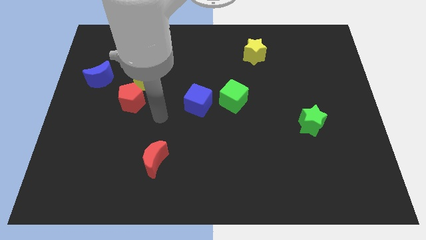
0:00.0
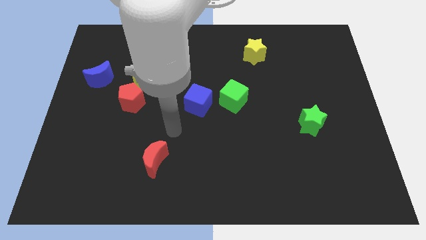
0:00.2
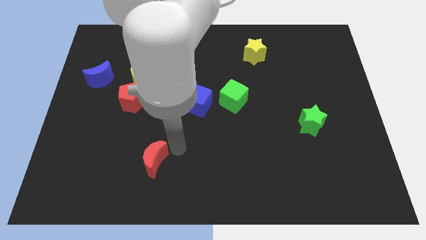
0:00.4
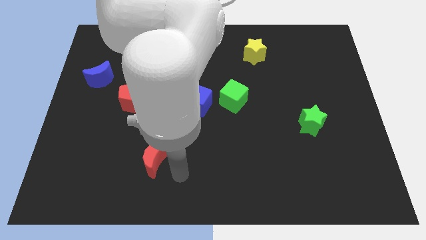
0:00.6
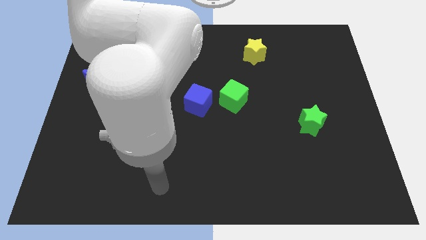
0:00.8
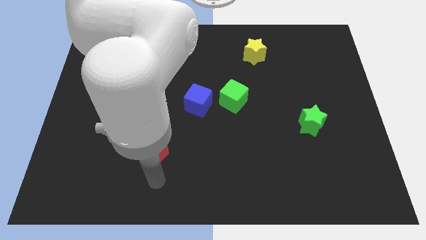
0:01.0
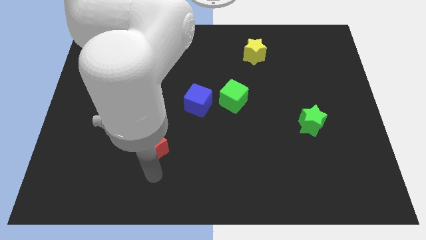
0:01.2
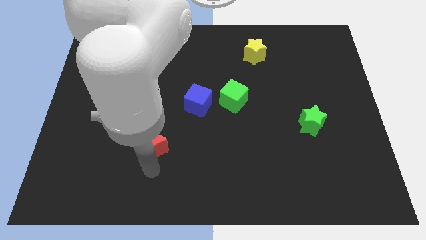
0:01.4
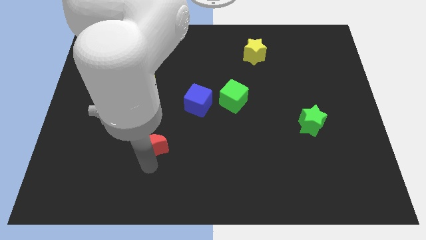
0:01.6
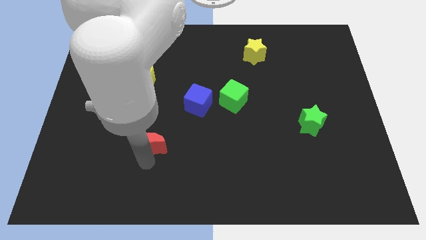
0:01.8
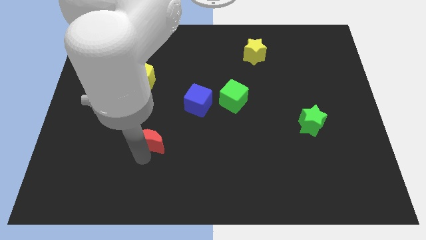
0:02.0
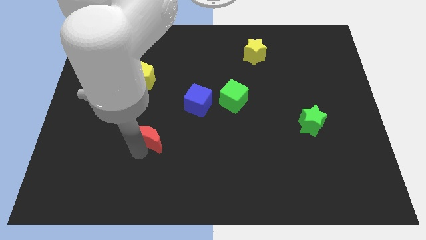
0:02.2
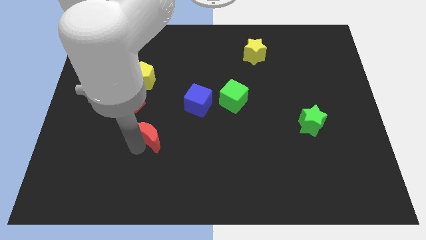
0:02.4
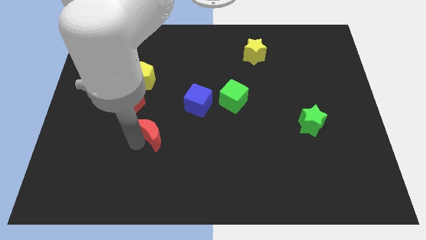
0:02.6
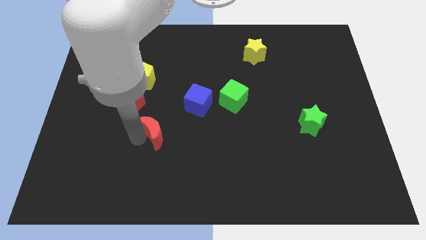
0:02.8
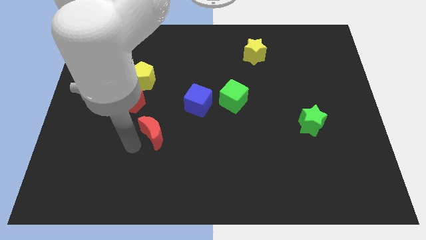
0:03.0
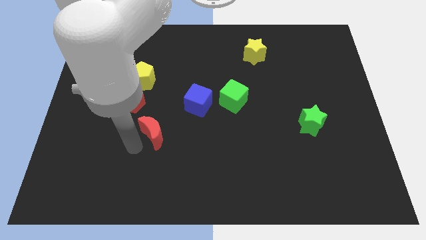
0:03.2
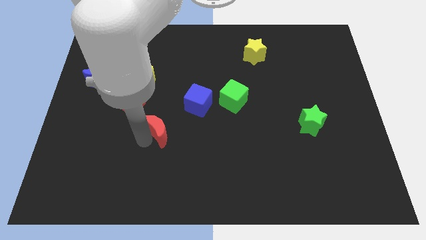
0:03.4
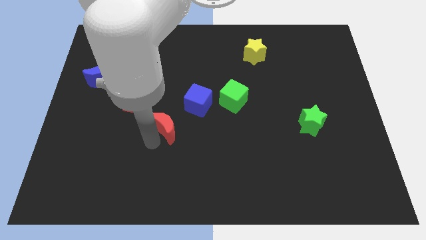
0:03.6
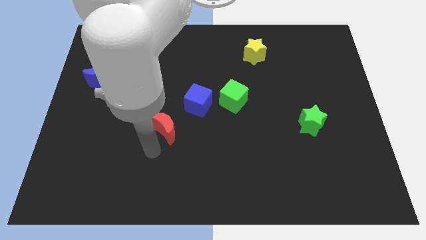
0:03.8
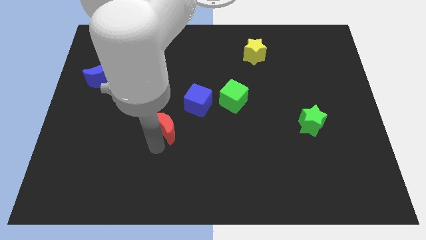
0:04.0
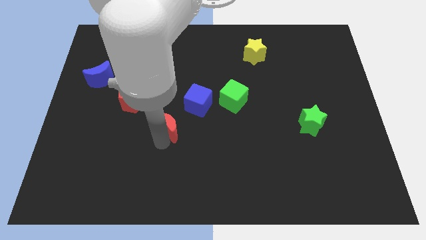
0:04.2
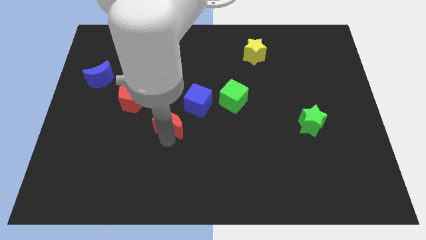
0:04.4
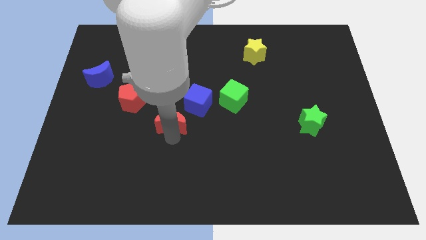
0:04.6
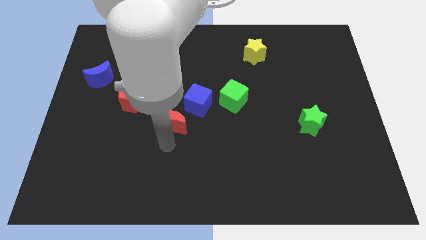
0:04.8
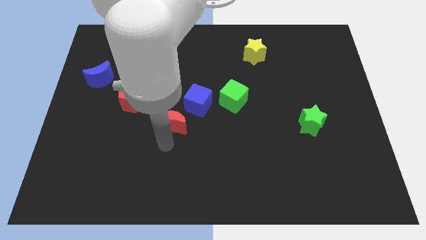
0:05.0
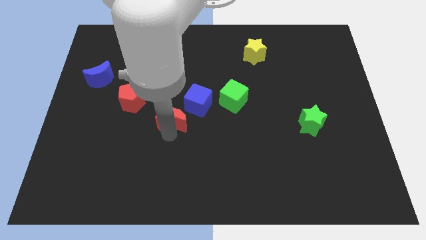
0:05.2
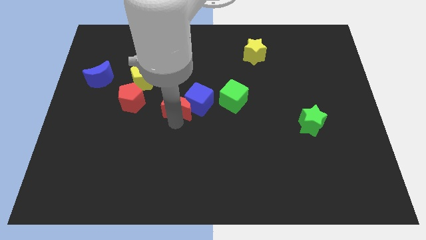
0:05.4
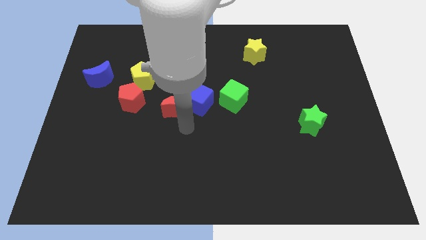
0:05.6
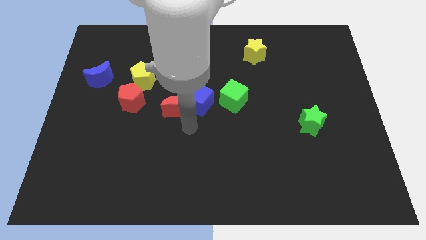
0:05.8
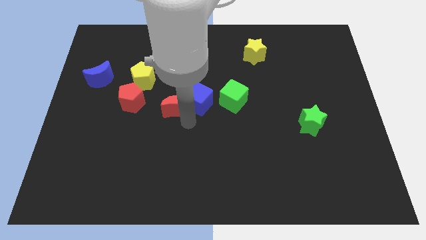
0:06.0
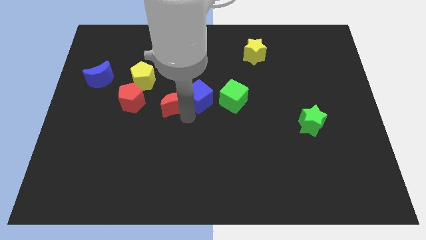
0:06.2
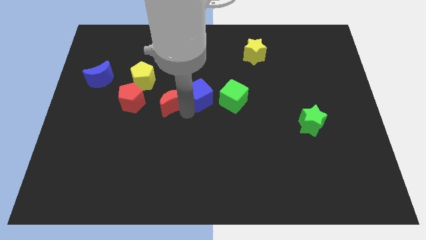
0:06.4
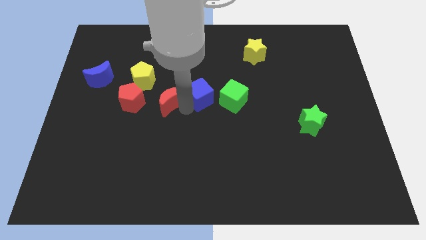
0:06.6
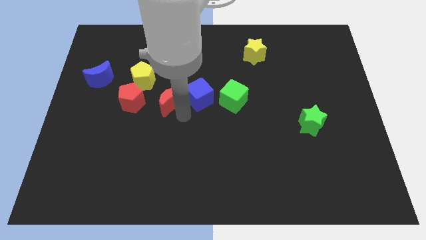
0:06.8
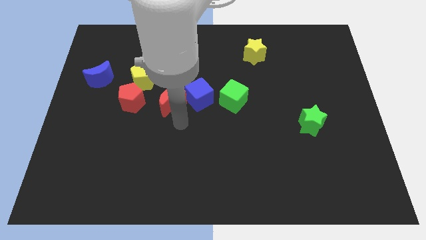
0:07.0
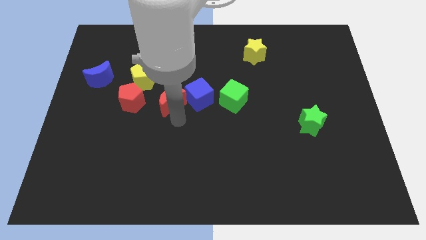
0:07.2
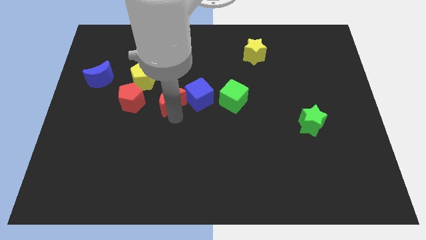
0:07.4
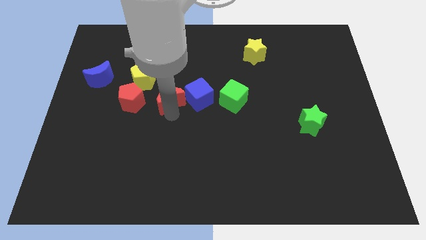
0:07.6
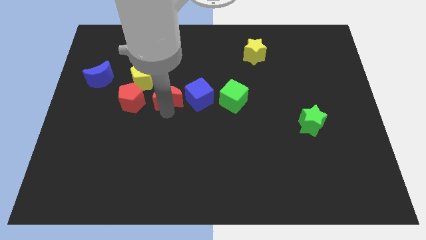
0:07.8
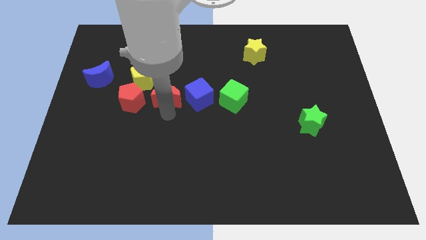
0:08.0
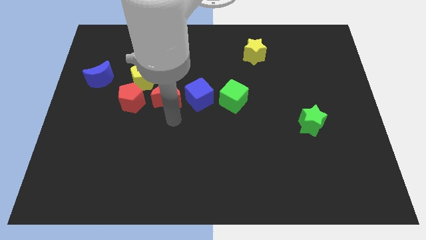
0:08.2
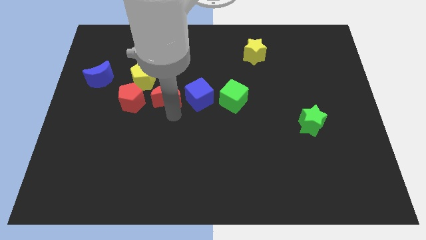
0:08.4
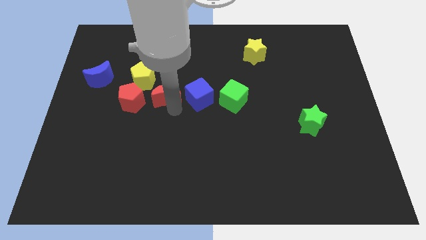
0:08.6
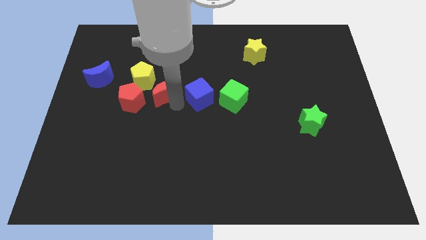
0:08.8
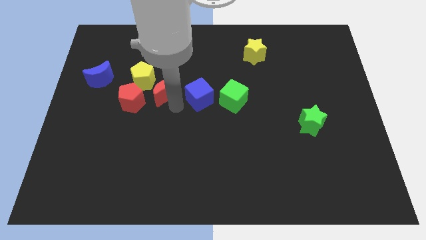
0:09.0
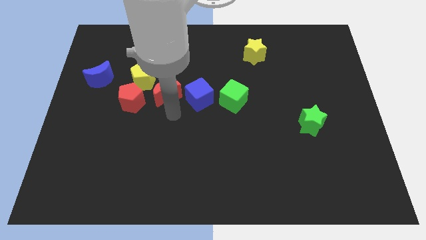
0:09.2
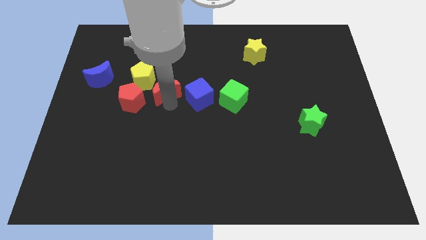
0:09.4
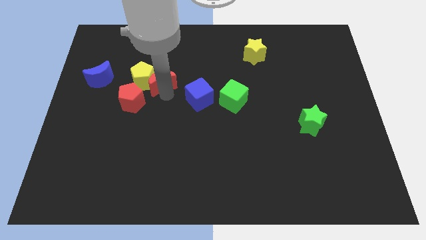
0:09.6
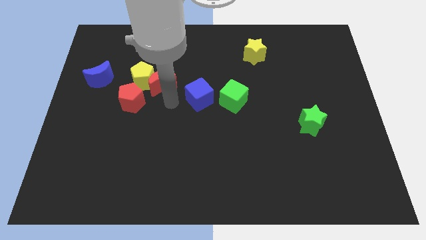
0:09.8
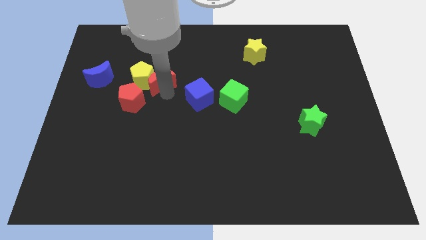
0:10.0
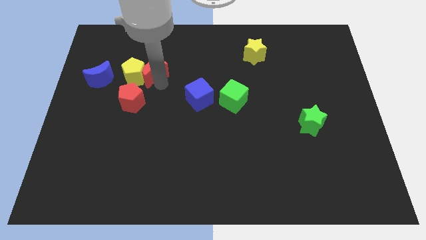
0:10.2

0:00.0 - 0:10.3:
push the red moon to the top of the red pentagon

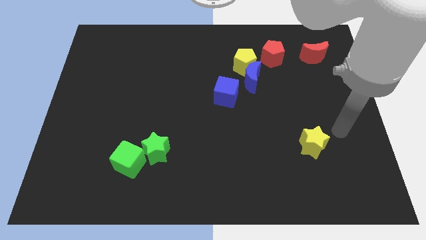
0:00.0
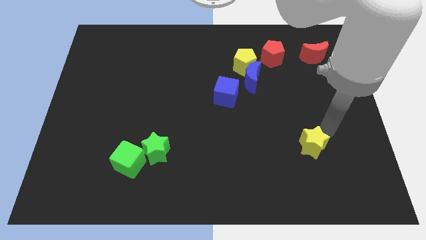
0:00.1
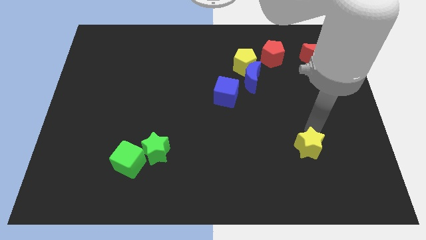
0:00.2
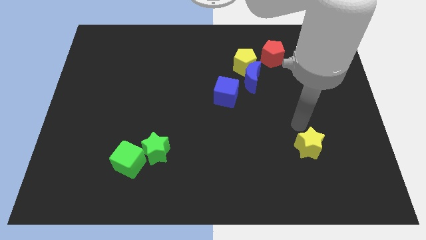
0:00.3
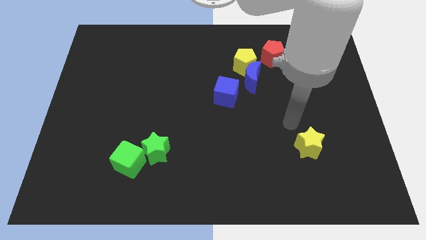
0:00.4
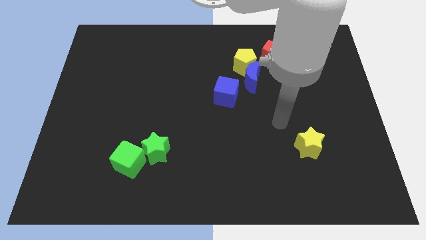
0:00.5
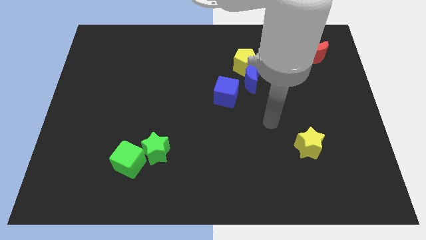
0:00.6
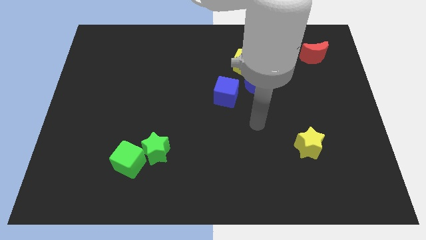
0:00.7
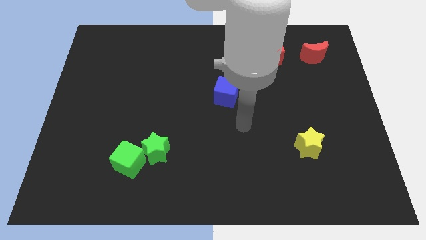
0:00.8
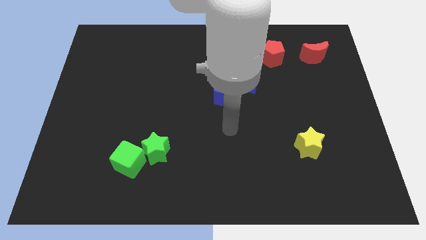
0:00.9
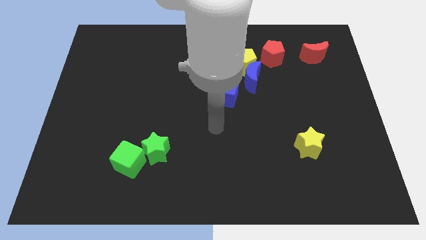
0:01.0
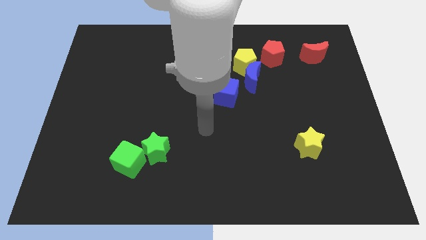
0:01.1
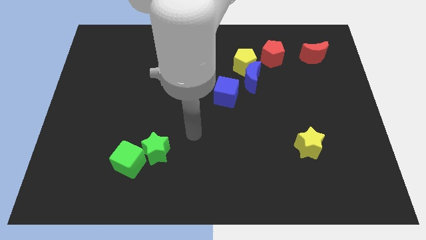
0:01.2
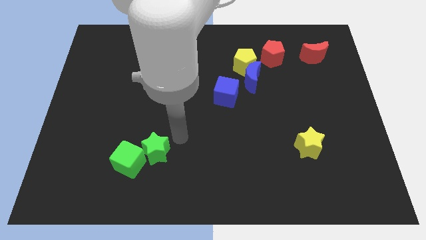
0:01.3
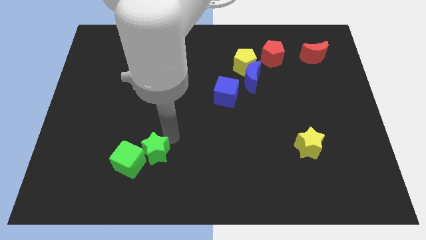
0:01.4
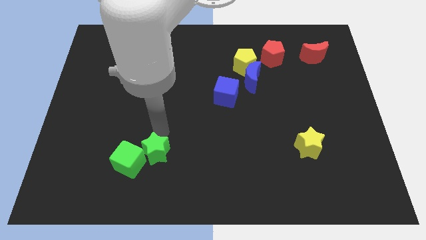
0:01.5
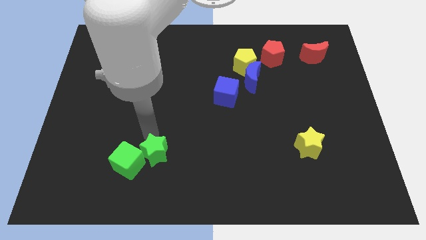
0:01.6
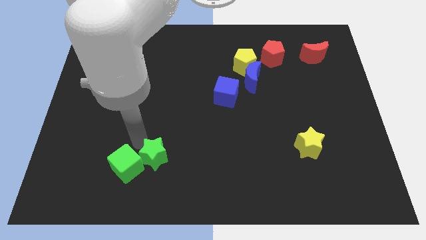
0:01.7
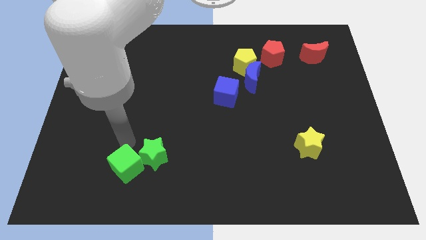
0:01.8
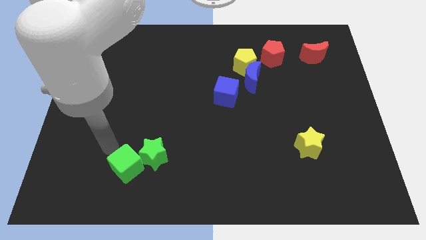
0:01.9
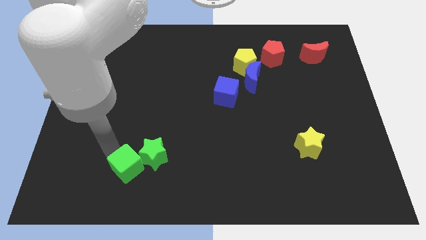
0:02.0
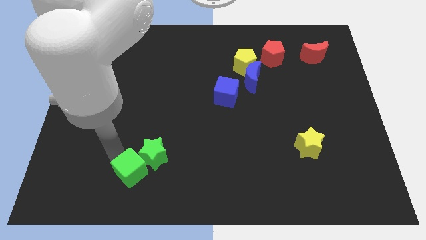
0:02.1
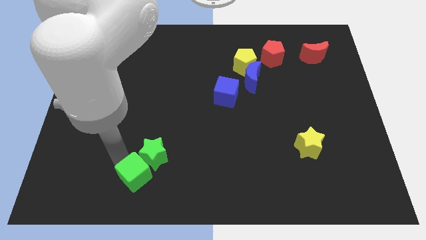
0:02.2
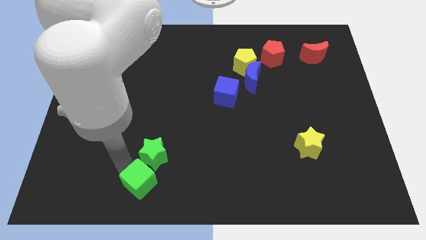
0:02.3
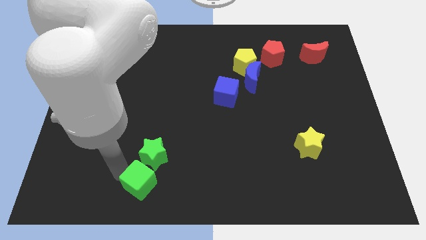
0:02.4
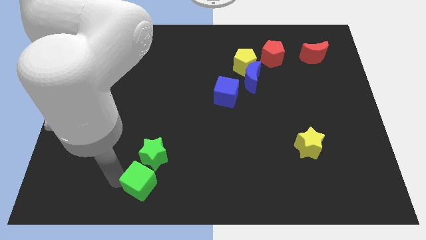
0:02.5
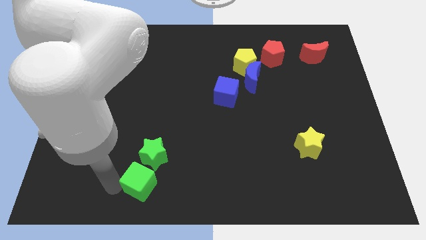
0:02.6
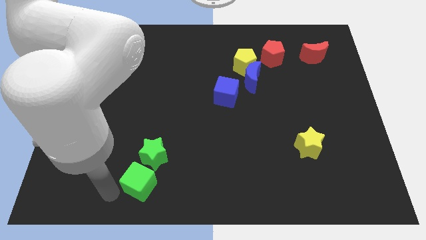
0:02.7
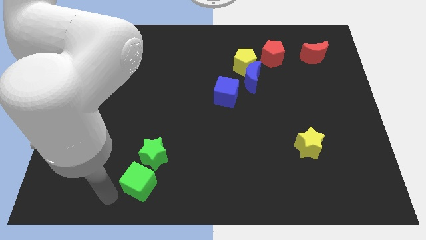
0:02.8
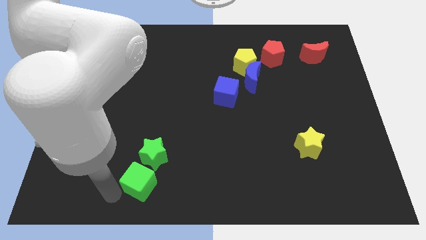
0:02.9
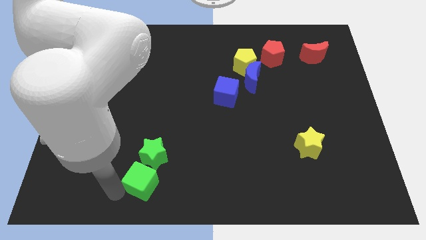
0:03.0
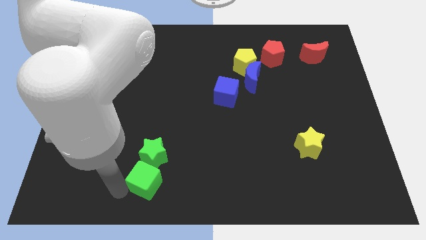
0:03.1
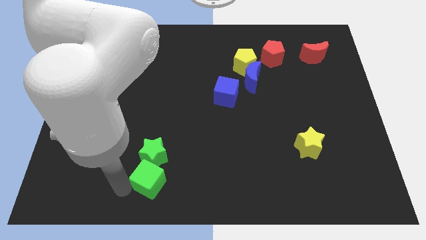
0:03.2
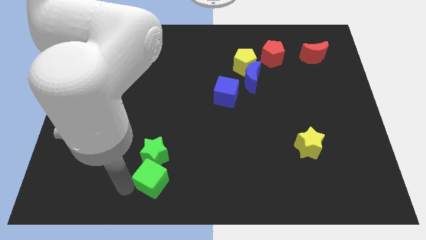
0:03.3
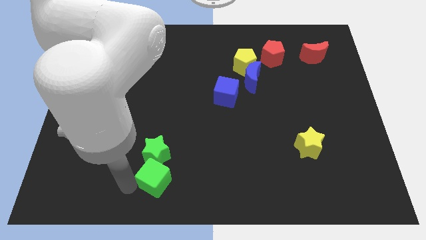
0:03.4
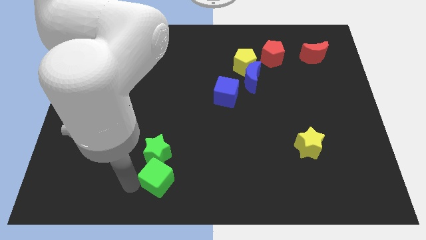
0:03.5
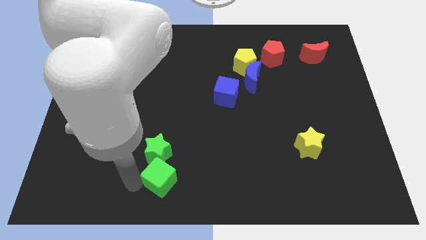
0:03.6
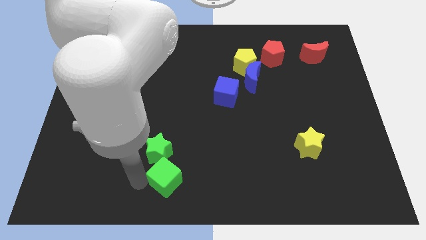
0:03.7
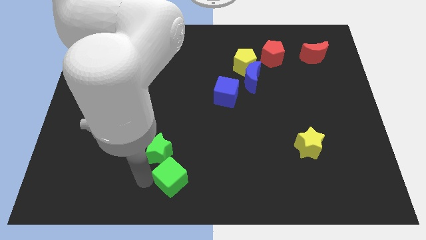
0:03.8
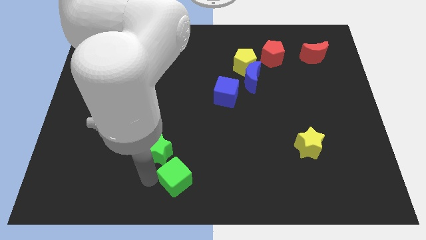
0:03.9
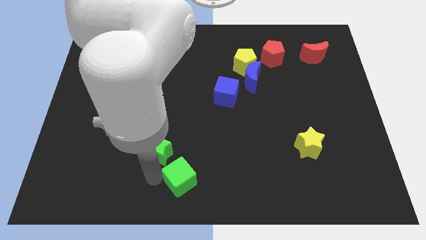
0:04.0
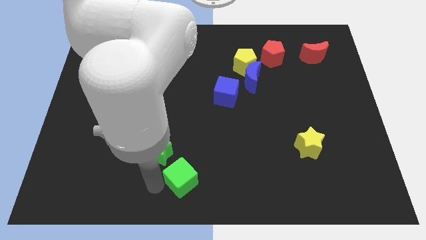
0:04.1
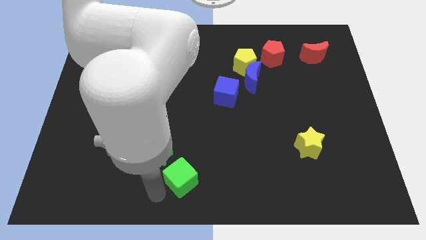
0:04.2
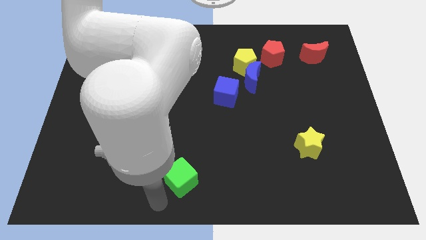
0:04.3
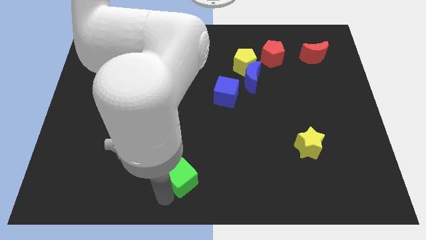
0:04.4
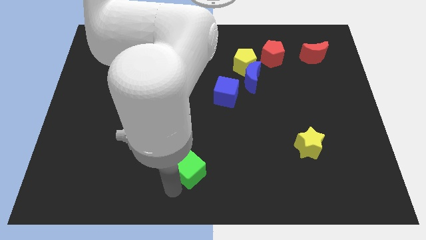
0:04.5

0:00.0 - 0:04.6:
put the green cube to the right of the green star
